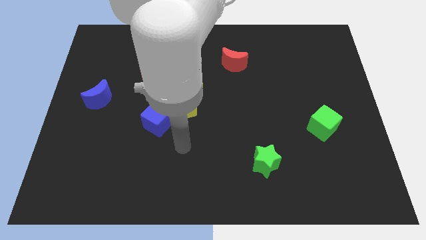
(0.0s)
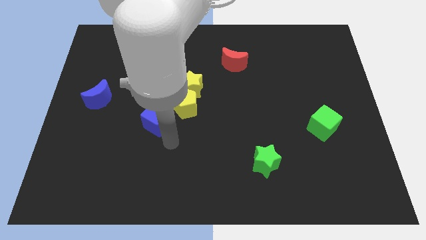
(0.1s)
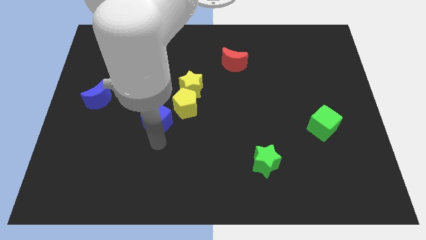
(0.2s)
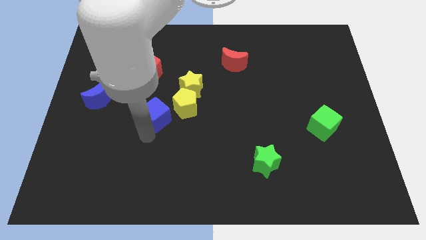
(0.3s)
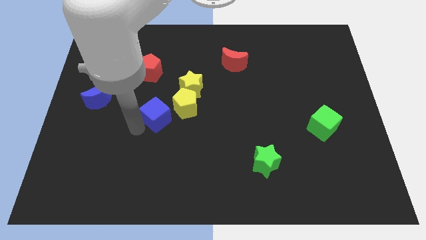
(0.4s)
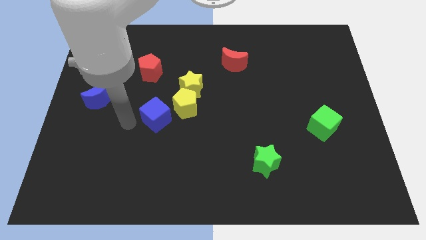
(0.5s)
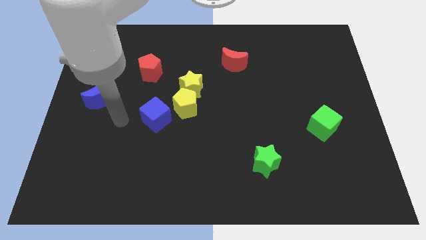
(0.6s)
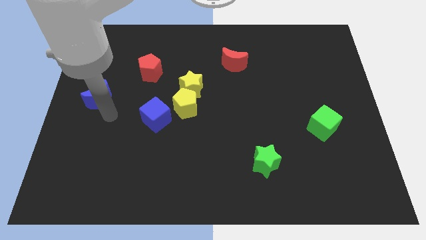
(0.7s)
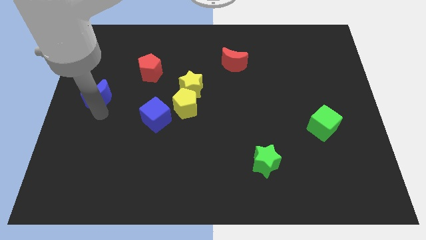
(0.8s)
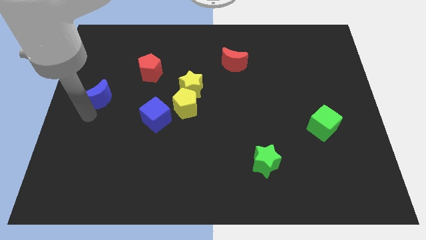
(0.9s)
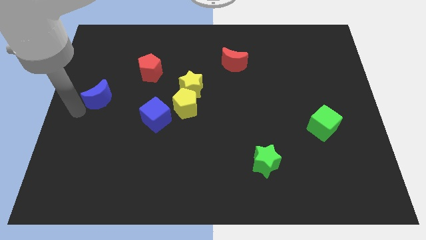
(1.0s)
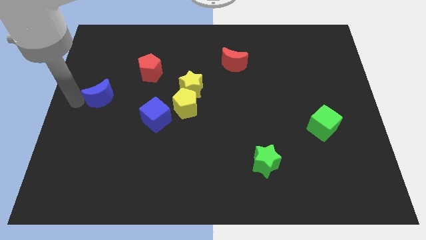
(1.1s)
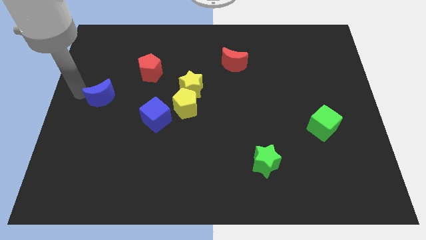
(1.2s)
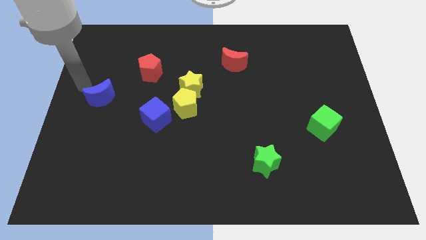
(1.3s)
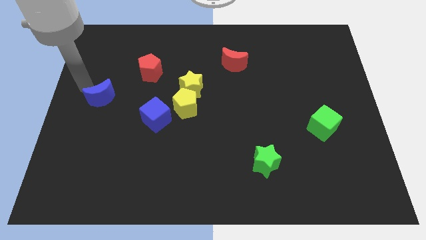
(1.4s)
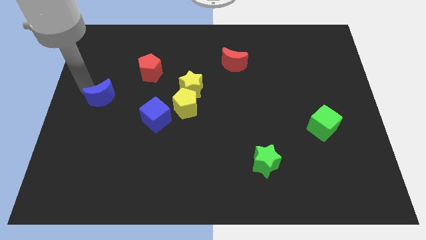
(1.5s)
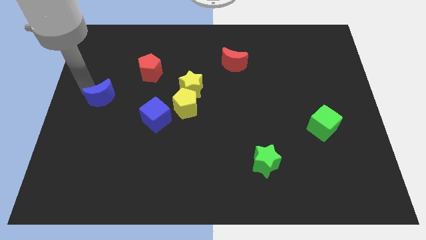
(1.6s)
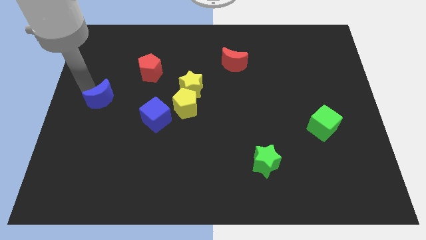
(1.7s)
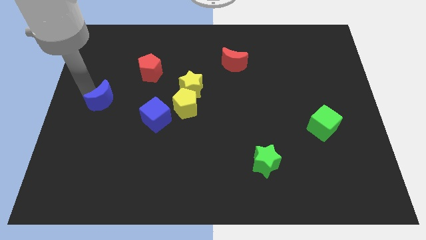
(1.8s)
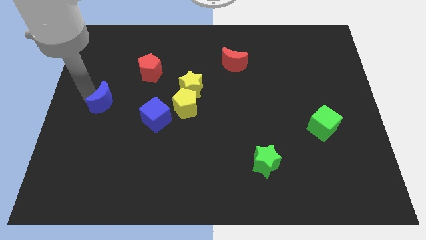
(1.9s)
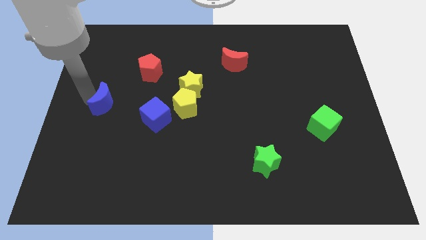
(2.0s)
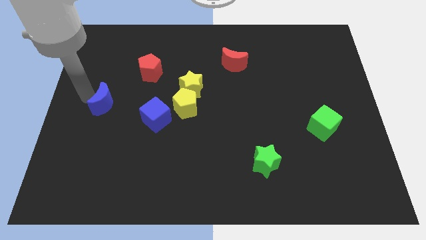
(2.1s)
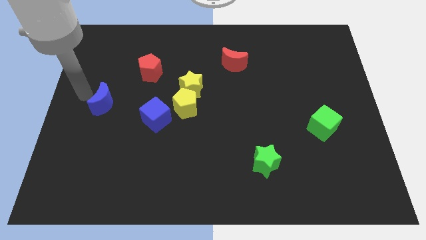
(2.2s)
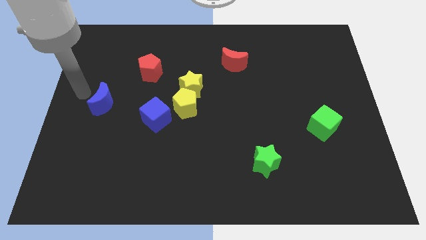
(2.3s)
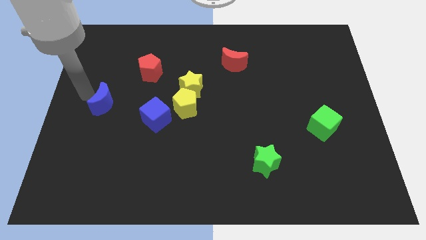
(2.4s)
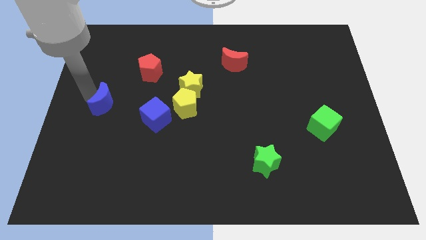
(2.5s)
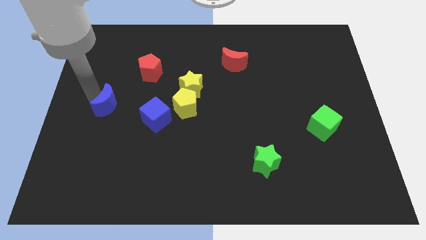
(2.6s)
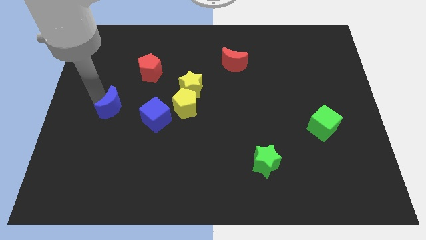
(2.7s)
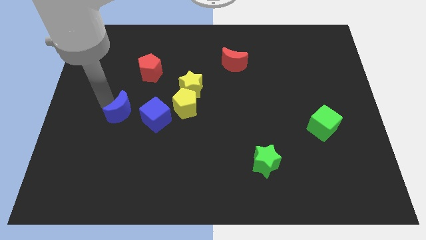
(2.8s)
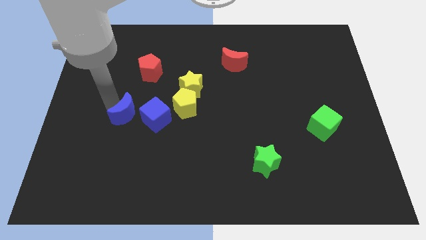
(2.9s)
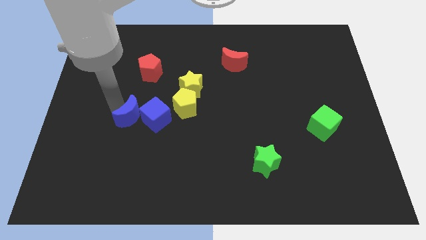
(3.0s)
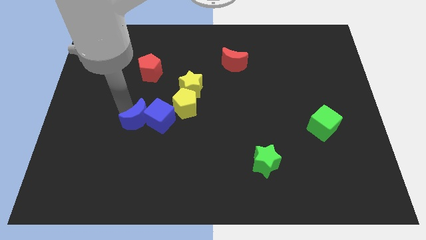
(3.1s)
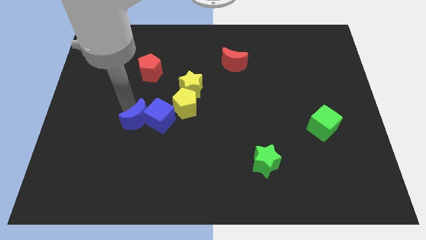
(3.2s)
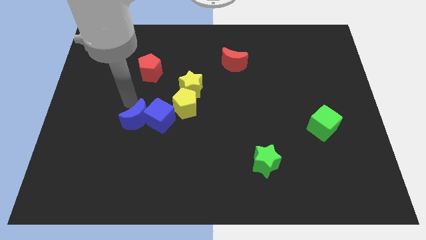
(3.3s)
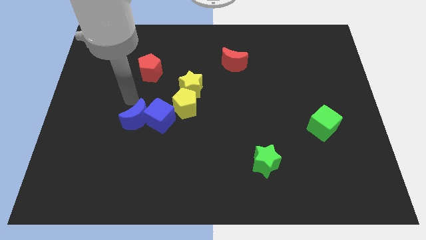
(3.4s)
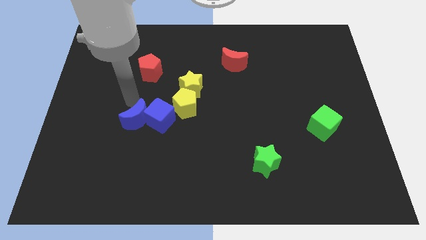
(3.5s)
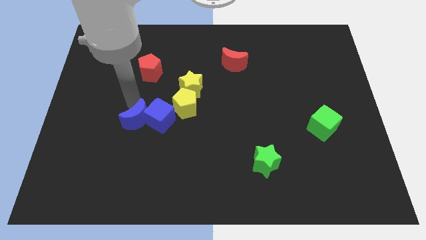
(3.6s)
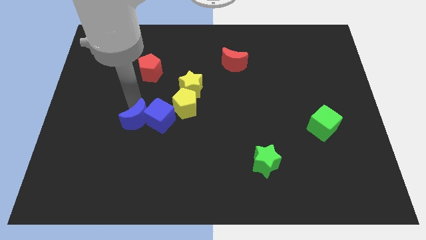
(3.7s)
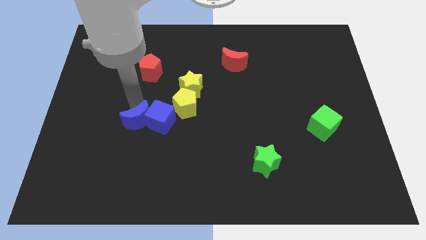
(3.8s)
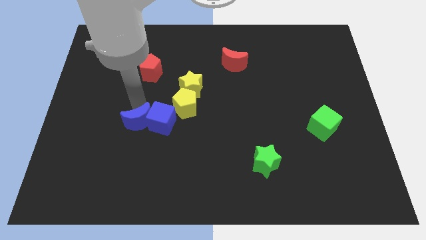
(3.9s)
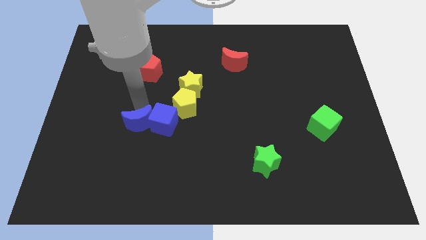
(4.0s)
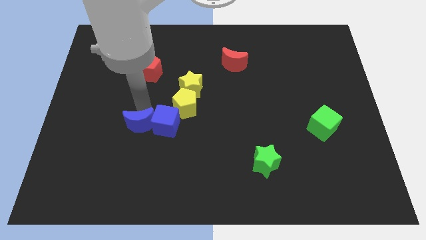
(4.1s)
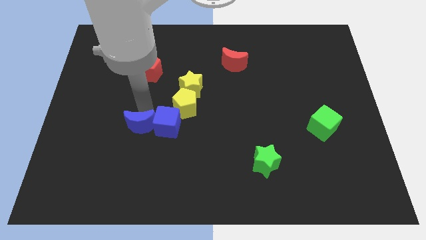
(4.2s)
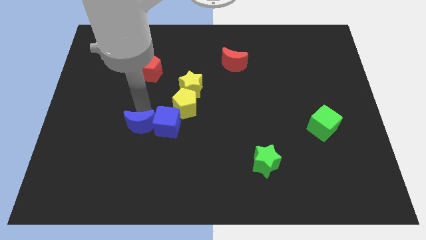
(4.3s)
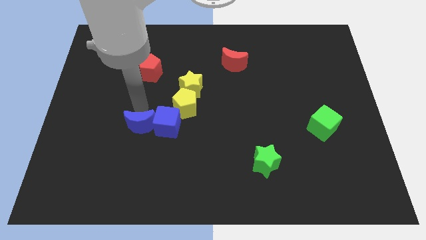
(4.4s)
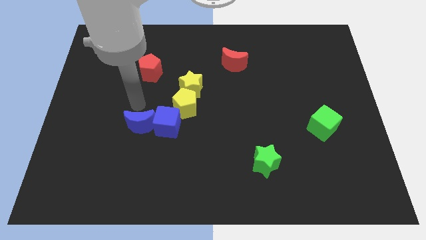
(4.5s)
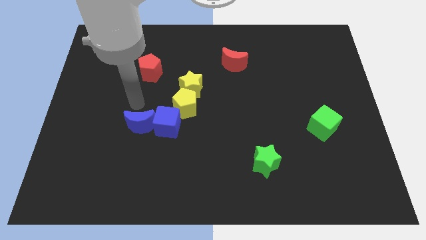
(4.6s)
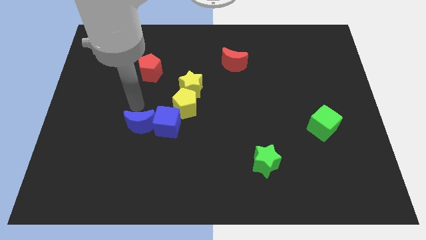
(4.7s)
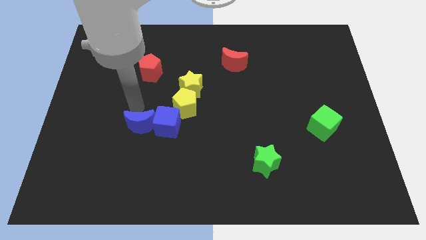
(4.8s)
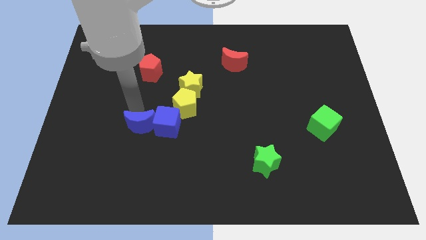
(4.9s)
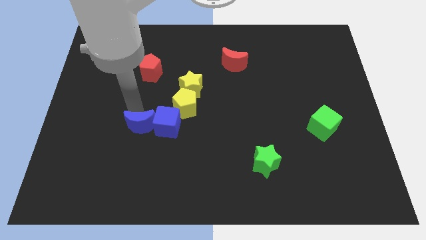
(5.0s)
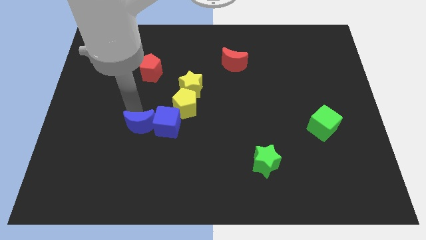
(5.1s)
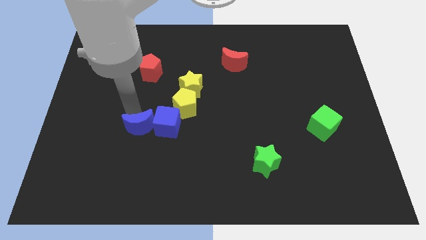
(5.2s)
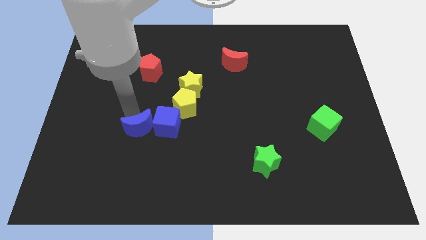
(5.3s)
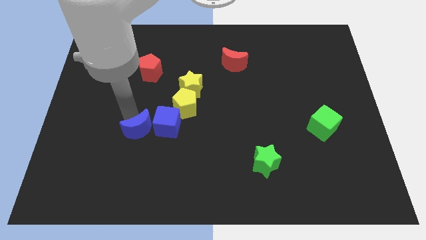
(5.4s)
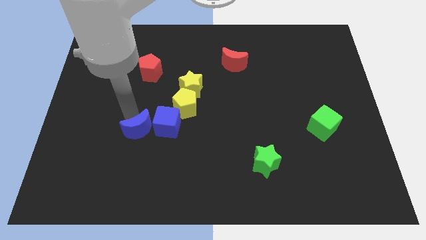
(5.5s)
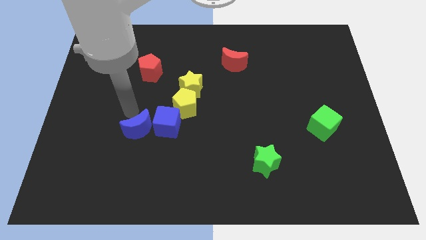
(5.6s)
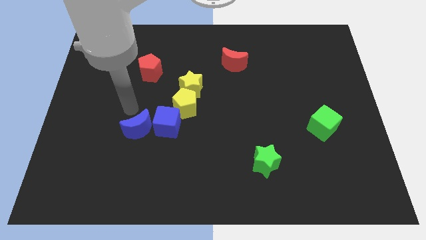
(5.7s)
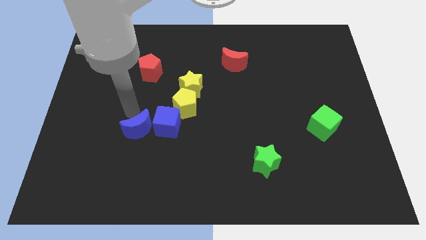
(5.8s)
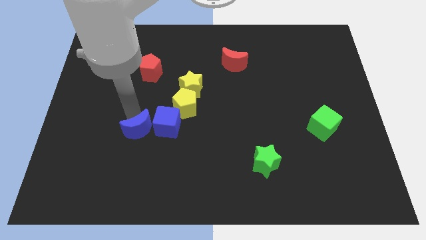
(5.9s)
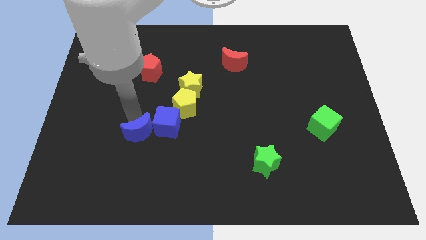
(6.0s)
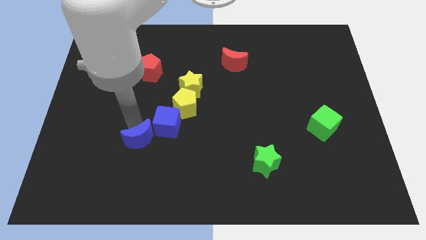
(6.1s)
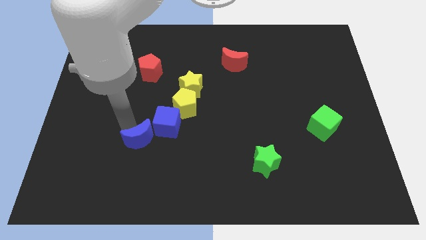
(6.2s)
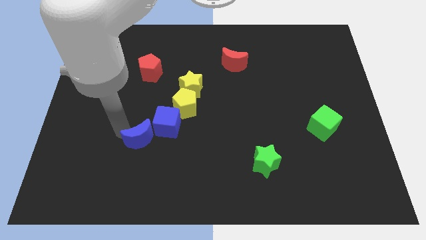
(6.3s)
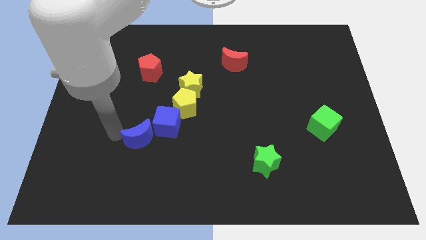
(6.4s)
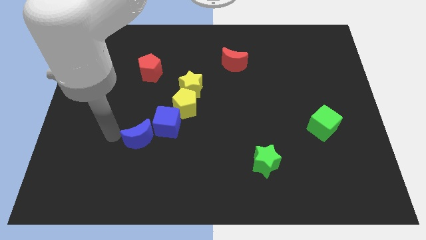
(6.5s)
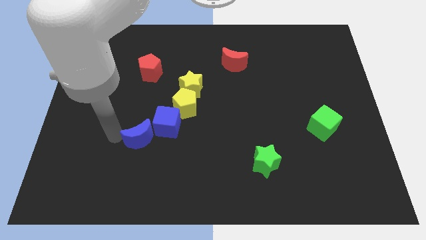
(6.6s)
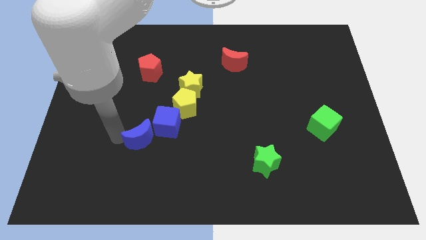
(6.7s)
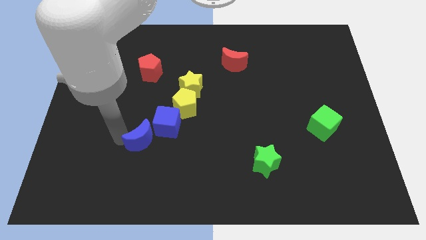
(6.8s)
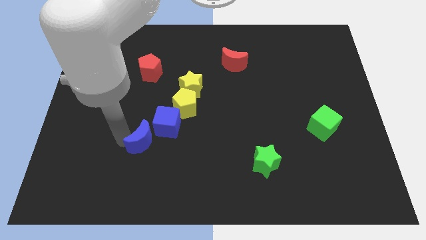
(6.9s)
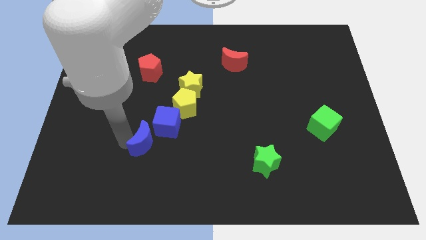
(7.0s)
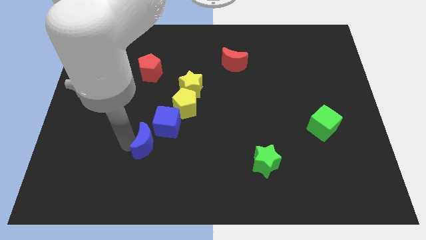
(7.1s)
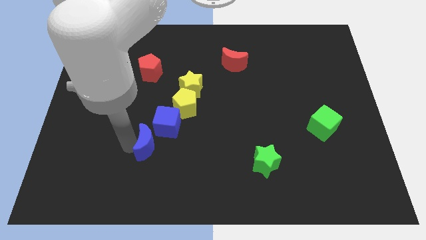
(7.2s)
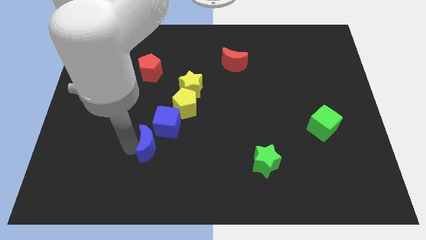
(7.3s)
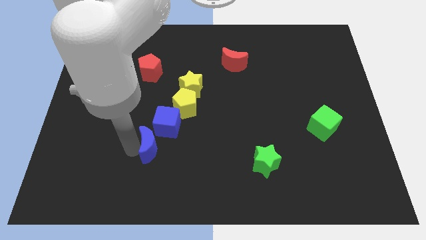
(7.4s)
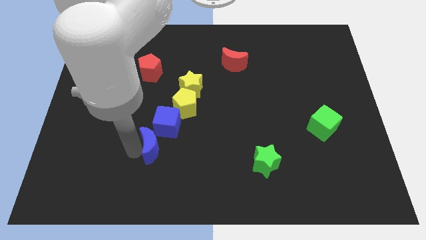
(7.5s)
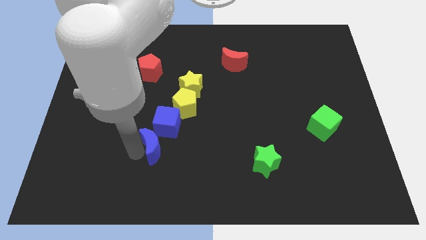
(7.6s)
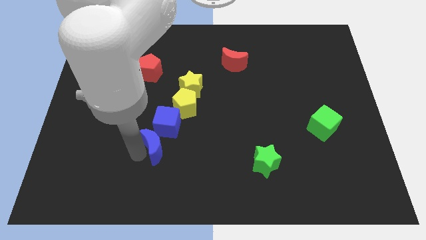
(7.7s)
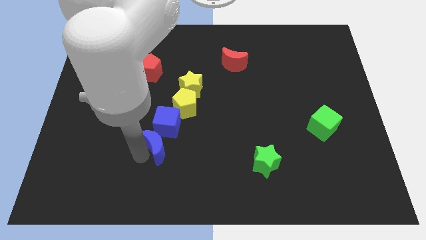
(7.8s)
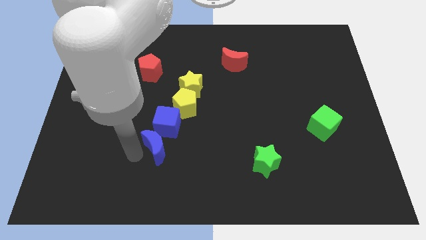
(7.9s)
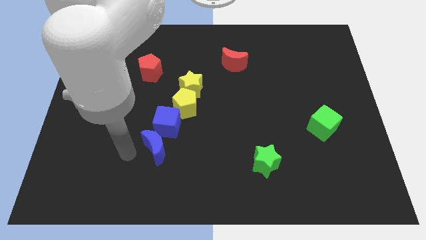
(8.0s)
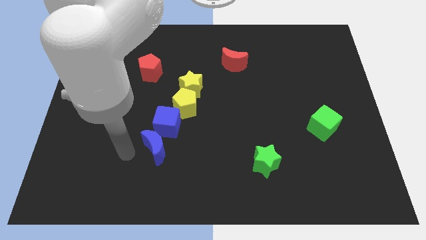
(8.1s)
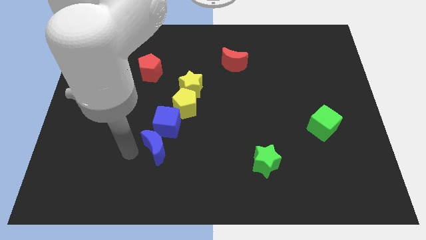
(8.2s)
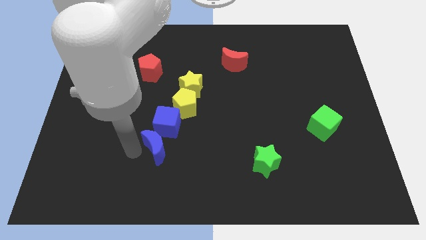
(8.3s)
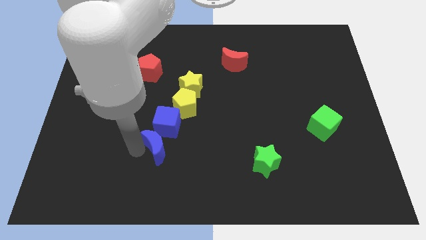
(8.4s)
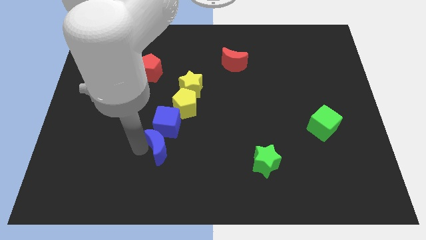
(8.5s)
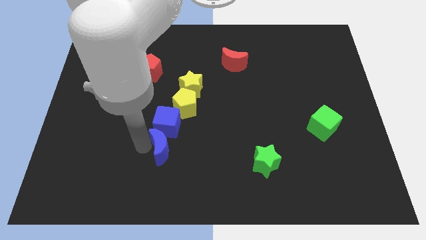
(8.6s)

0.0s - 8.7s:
push the blue moon to the bottom of the yellow pentagon
